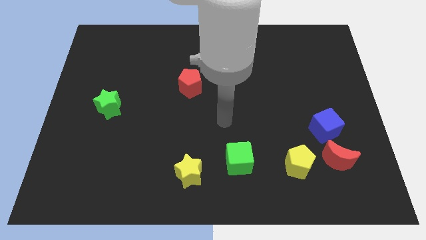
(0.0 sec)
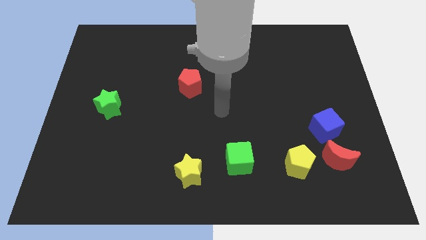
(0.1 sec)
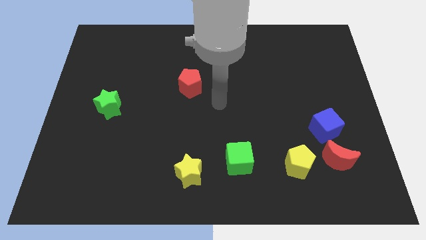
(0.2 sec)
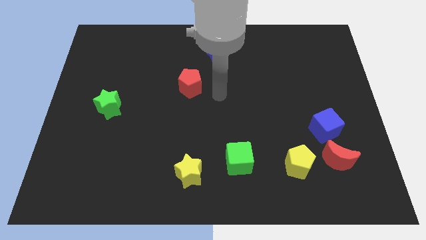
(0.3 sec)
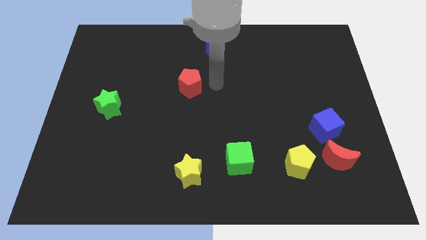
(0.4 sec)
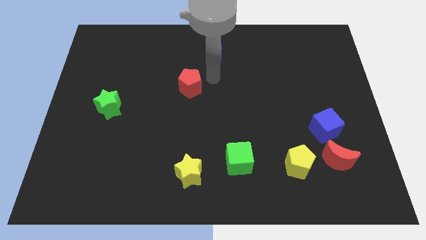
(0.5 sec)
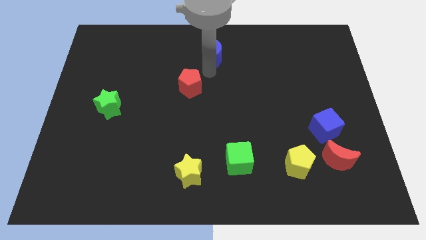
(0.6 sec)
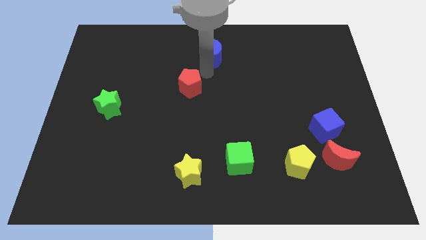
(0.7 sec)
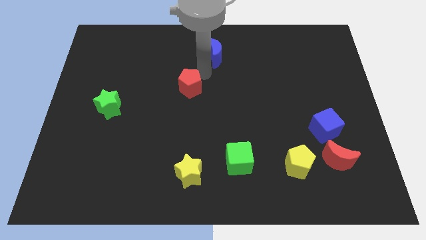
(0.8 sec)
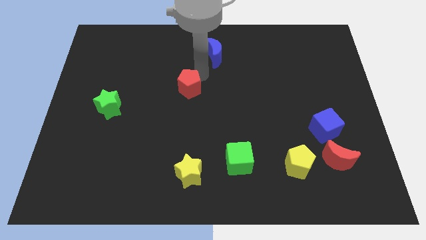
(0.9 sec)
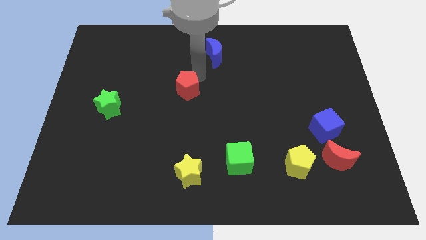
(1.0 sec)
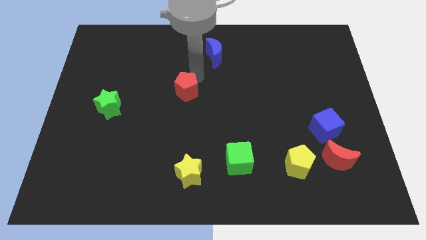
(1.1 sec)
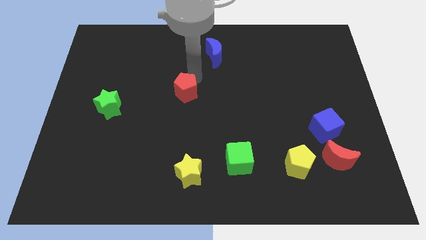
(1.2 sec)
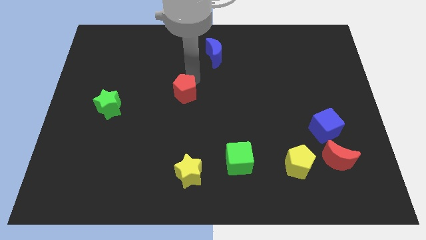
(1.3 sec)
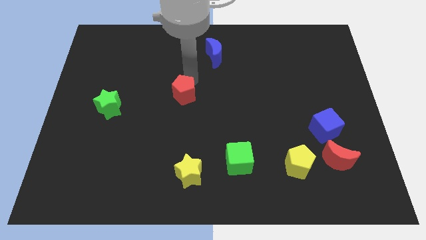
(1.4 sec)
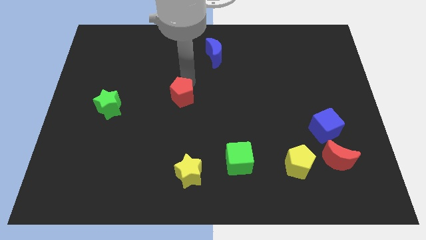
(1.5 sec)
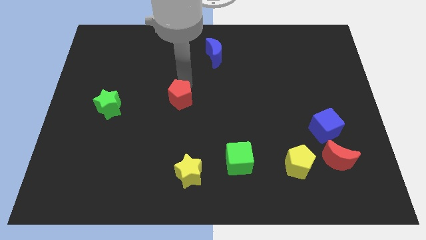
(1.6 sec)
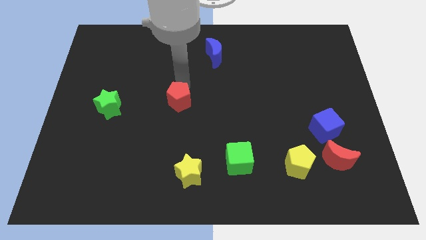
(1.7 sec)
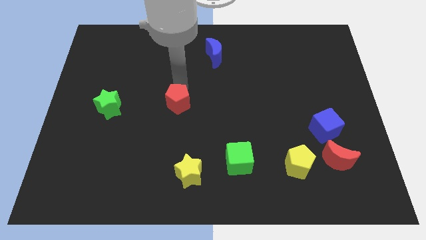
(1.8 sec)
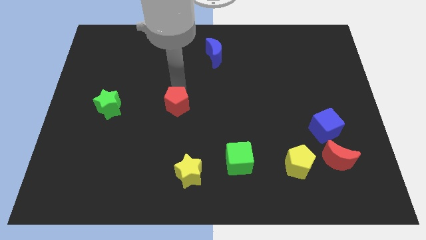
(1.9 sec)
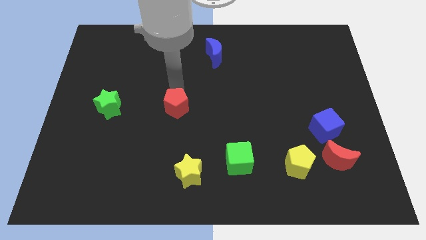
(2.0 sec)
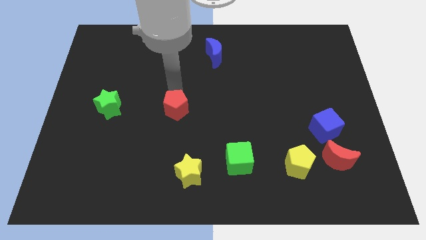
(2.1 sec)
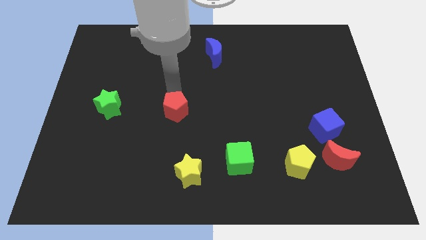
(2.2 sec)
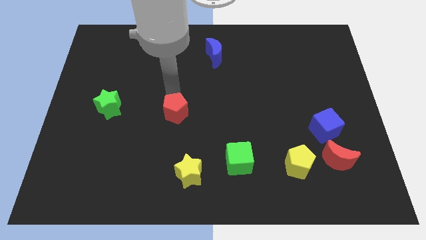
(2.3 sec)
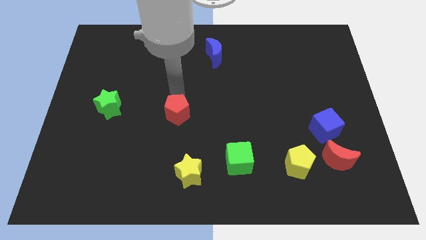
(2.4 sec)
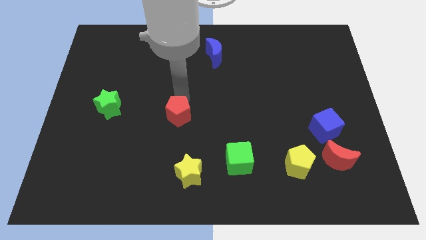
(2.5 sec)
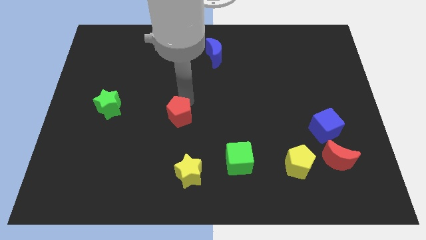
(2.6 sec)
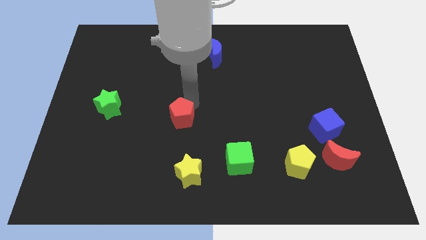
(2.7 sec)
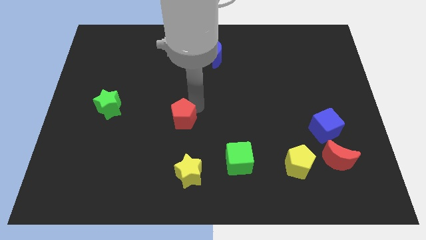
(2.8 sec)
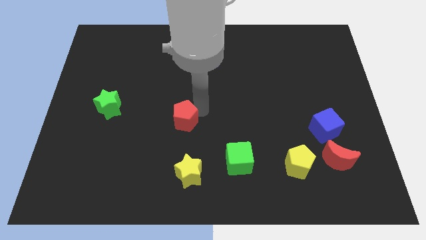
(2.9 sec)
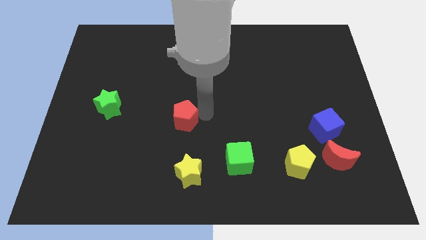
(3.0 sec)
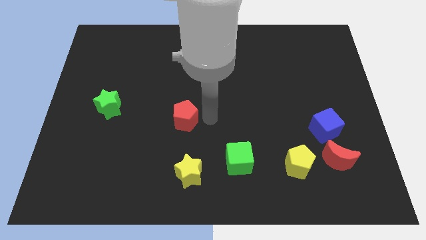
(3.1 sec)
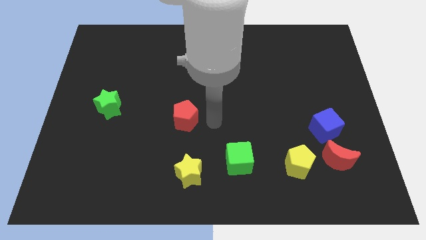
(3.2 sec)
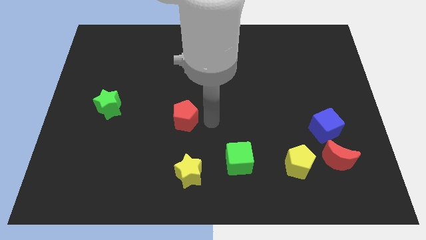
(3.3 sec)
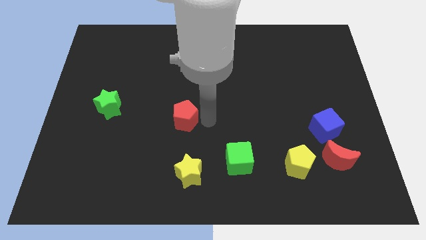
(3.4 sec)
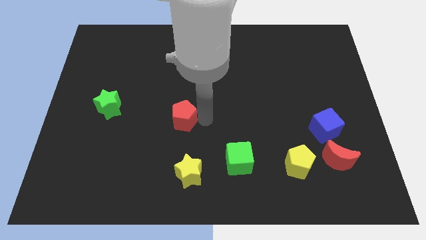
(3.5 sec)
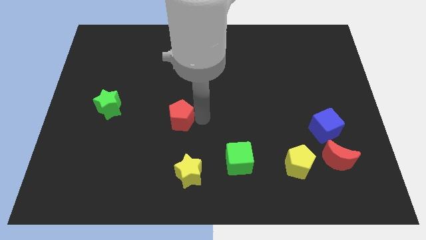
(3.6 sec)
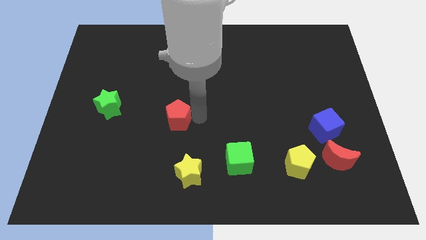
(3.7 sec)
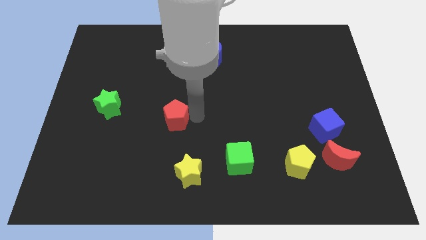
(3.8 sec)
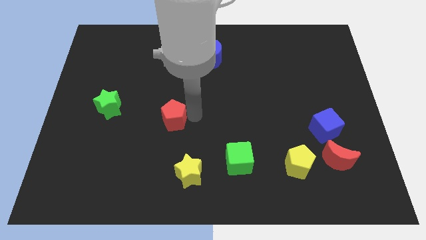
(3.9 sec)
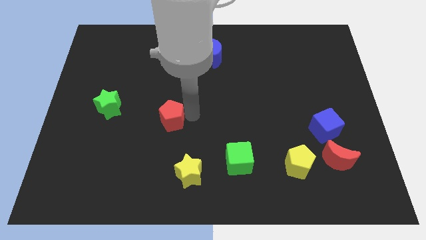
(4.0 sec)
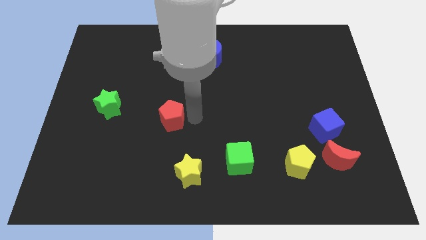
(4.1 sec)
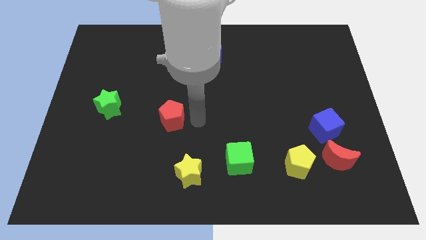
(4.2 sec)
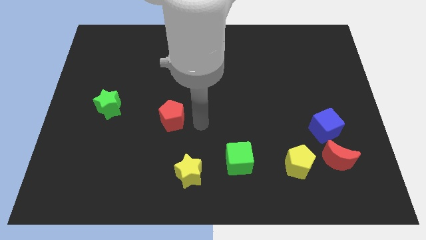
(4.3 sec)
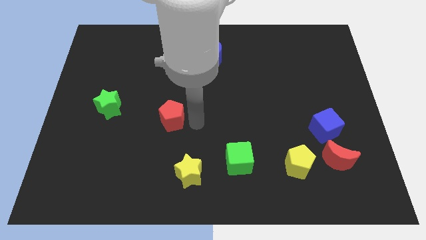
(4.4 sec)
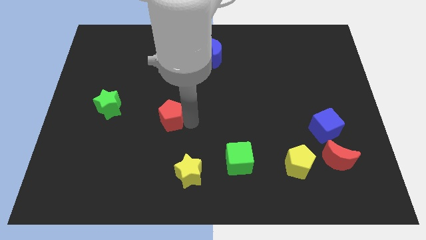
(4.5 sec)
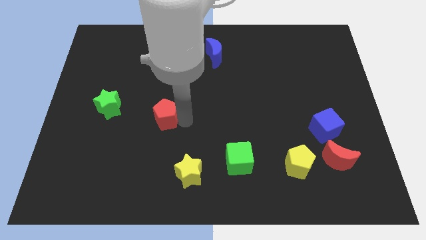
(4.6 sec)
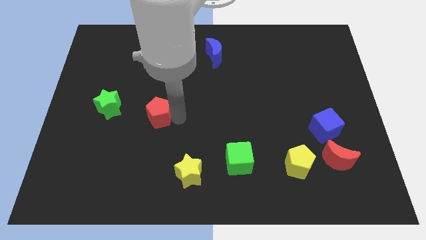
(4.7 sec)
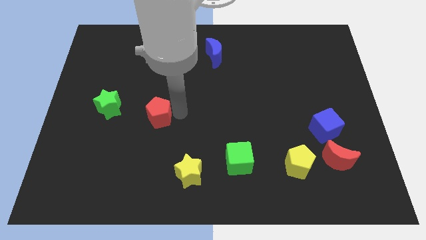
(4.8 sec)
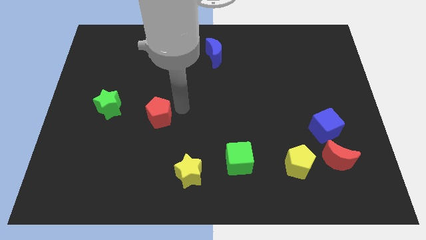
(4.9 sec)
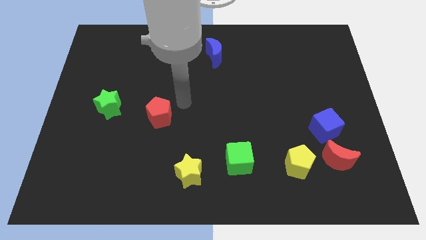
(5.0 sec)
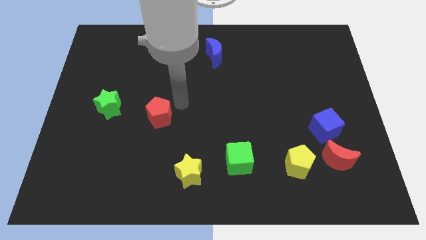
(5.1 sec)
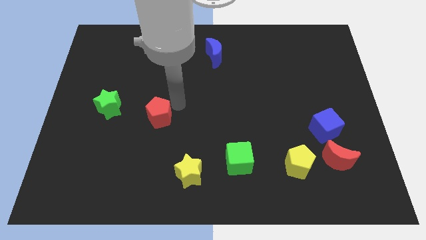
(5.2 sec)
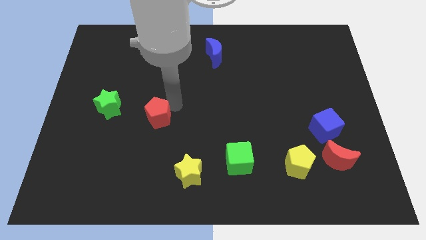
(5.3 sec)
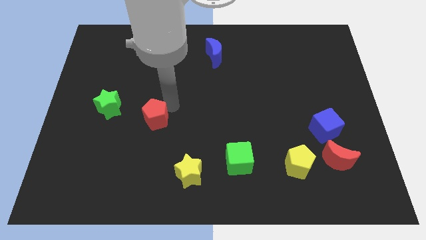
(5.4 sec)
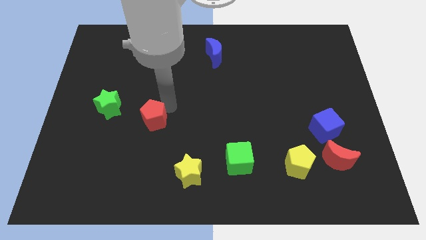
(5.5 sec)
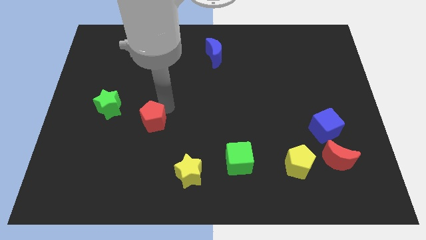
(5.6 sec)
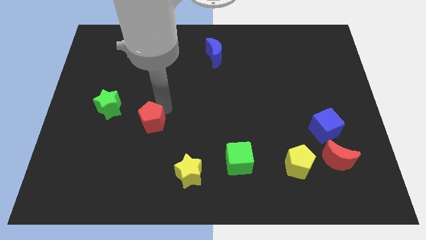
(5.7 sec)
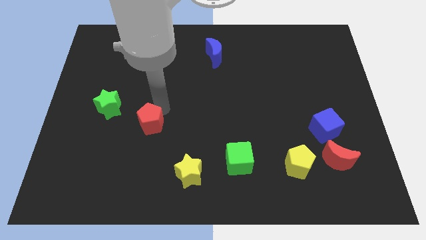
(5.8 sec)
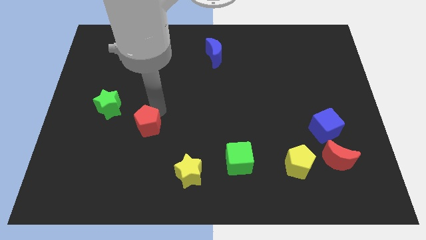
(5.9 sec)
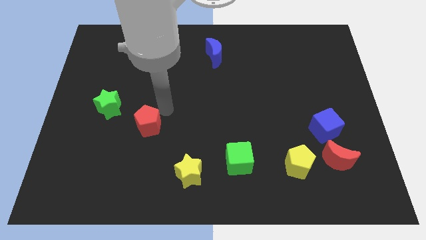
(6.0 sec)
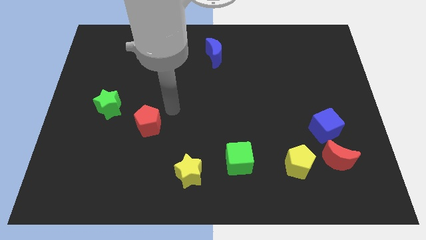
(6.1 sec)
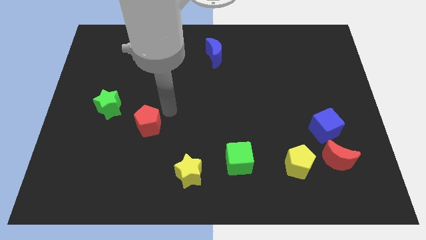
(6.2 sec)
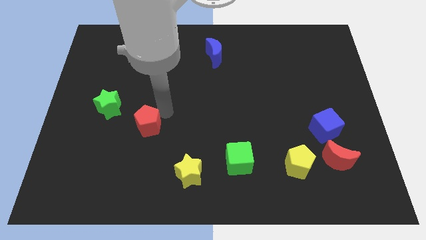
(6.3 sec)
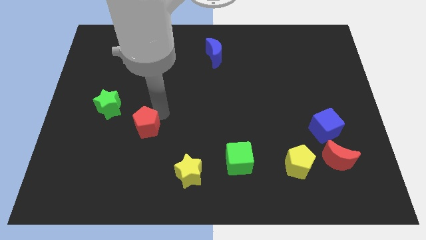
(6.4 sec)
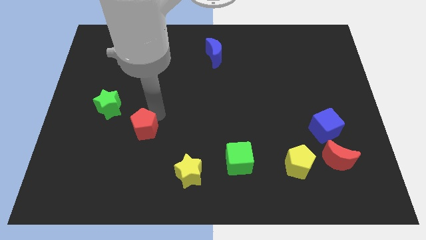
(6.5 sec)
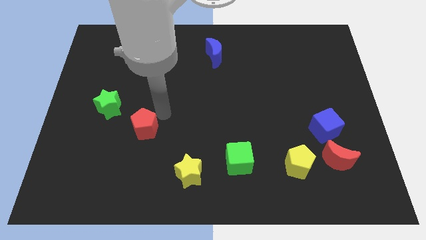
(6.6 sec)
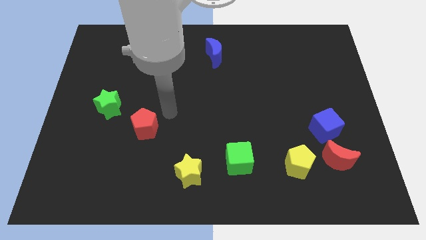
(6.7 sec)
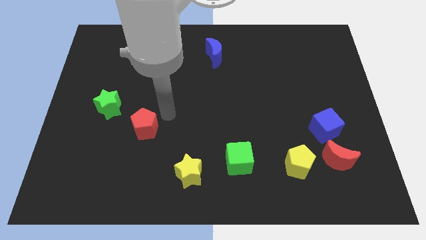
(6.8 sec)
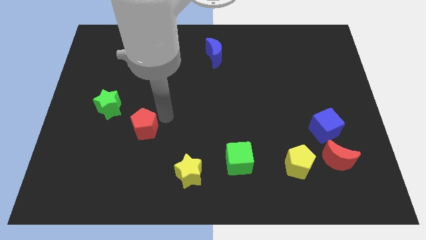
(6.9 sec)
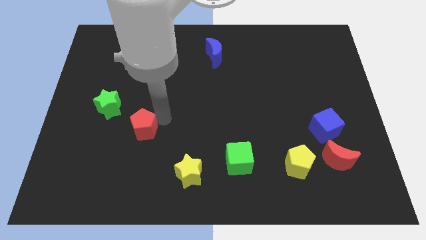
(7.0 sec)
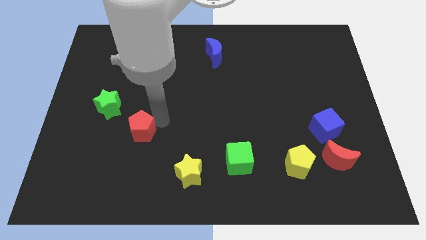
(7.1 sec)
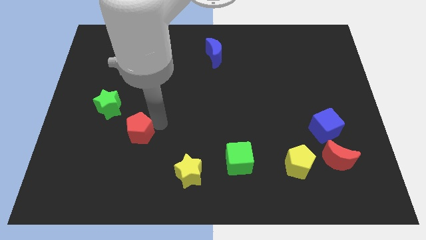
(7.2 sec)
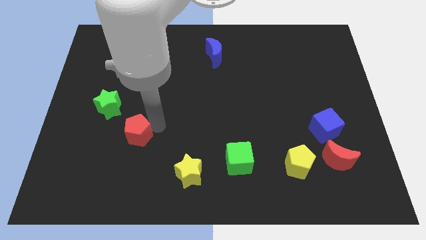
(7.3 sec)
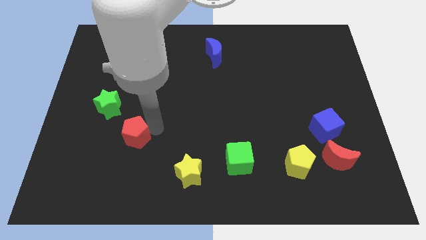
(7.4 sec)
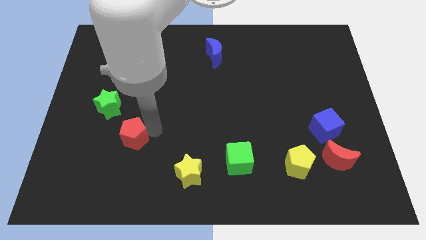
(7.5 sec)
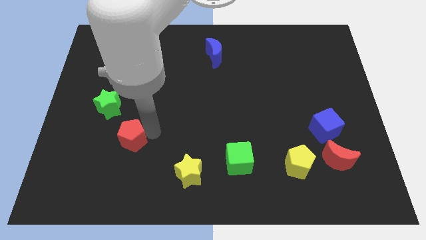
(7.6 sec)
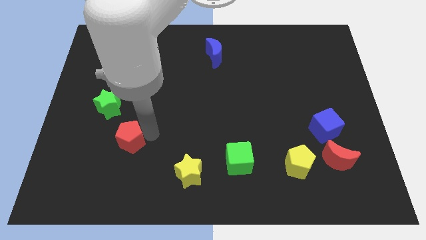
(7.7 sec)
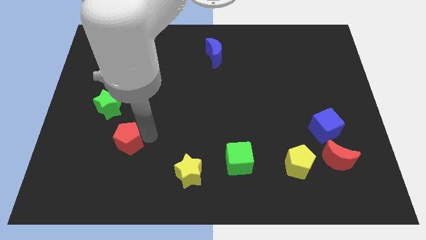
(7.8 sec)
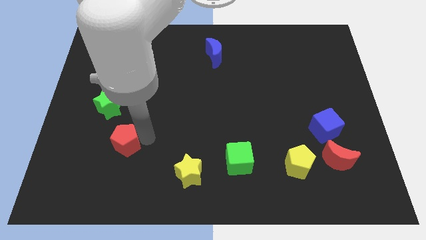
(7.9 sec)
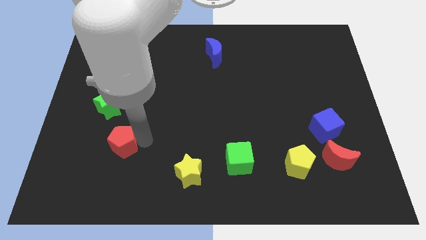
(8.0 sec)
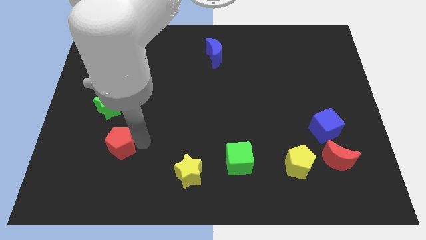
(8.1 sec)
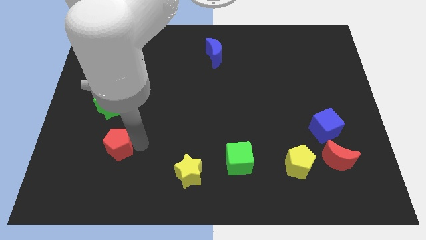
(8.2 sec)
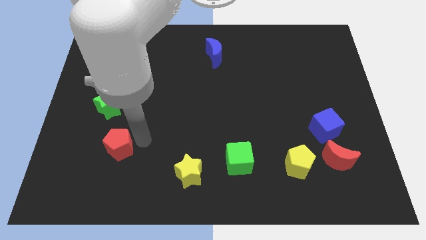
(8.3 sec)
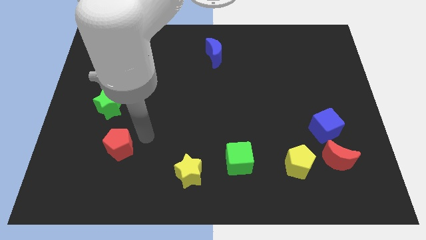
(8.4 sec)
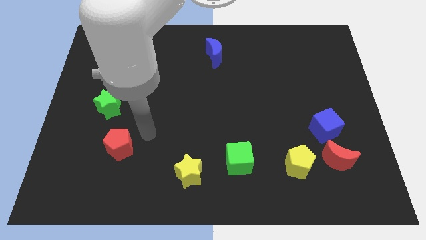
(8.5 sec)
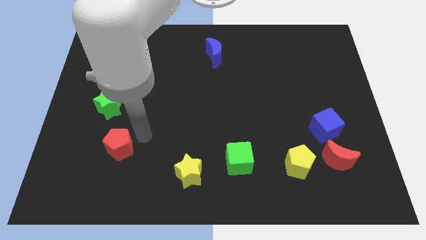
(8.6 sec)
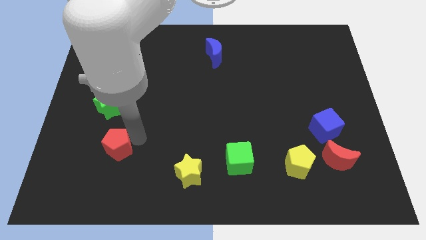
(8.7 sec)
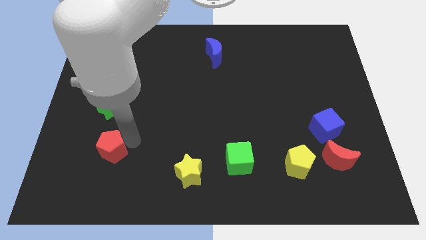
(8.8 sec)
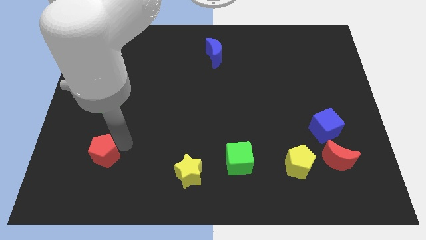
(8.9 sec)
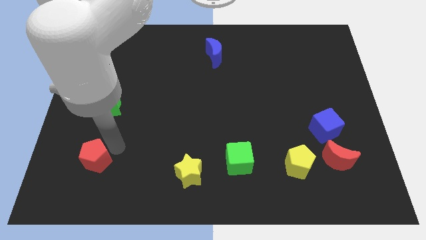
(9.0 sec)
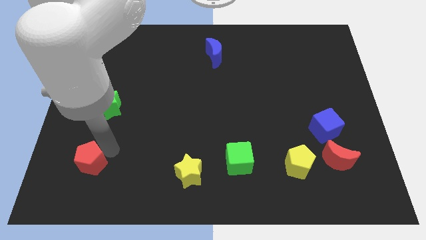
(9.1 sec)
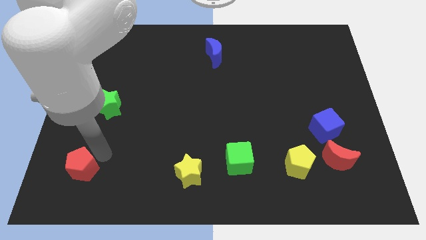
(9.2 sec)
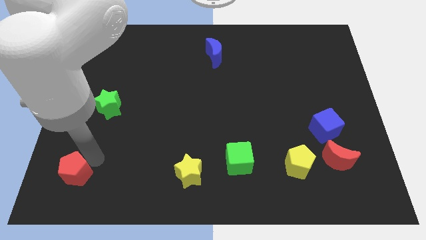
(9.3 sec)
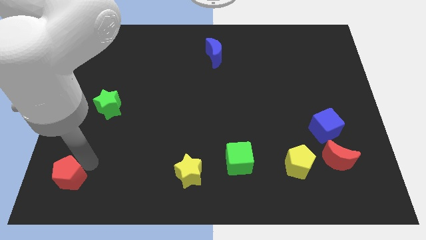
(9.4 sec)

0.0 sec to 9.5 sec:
move the red pentagon to the lower left corner
